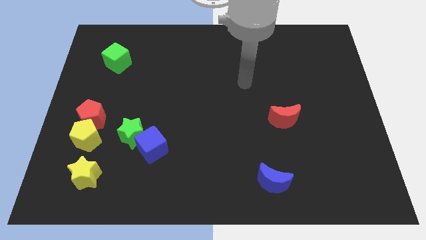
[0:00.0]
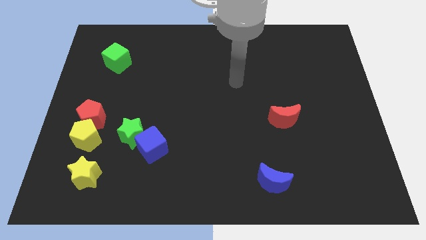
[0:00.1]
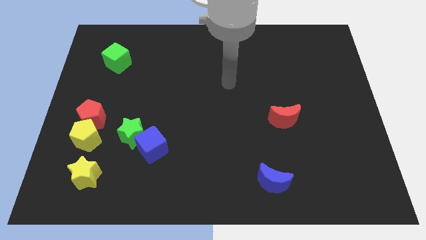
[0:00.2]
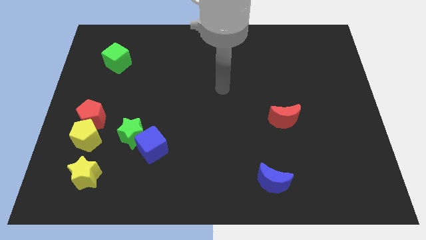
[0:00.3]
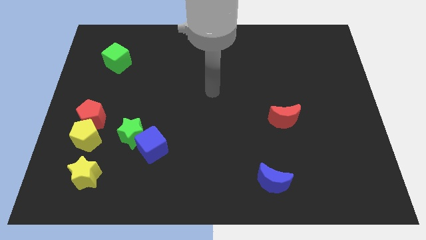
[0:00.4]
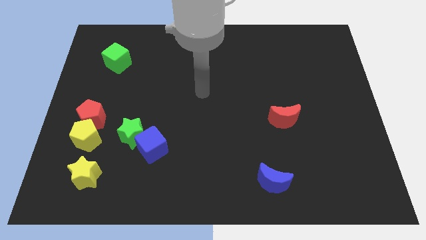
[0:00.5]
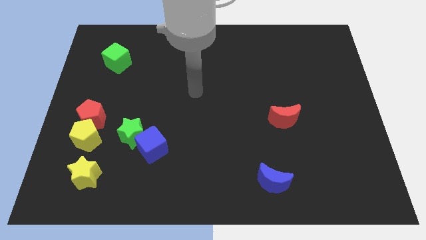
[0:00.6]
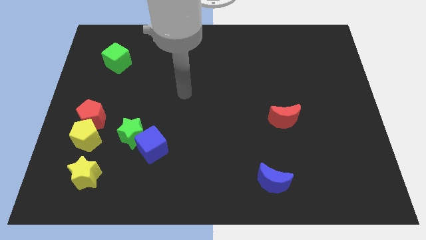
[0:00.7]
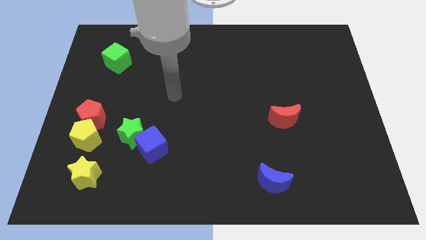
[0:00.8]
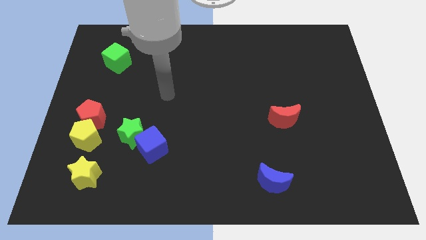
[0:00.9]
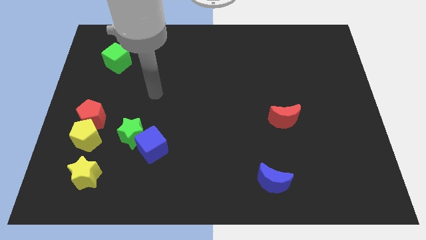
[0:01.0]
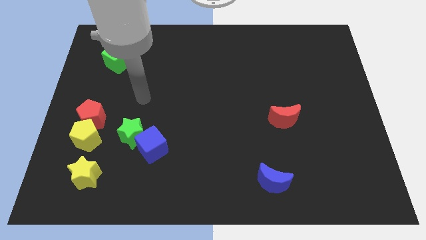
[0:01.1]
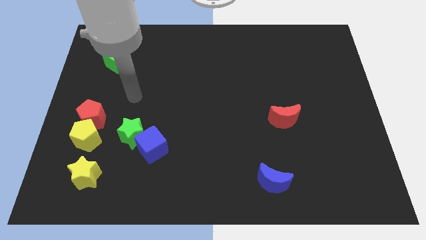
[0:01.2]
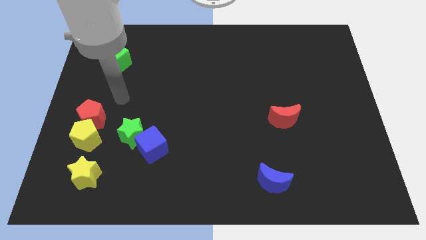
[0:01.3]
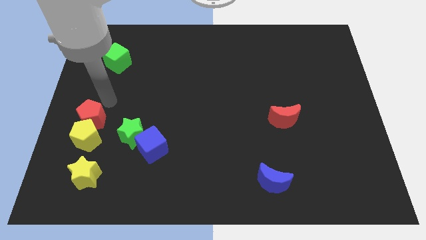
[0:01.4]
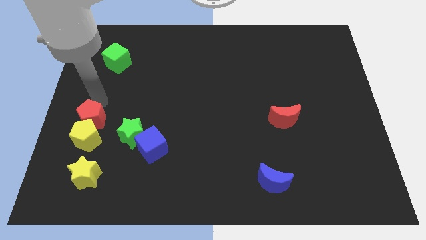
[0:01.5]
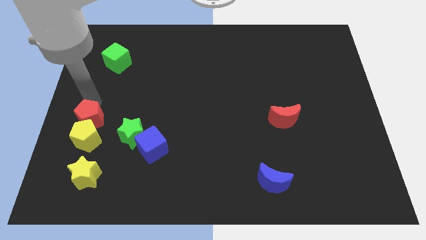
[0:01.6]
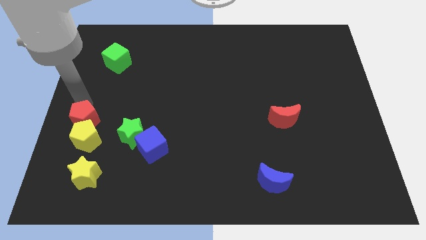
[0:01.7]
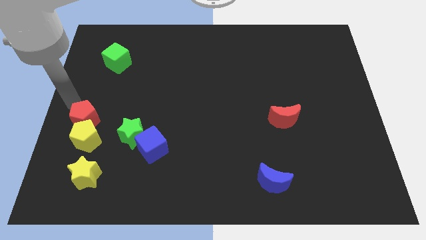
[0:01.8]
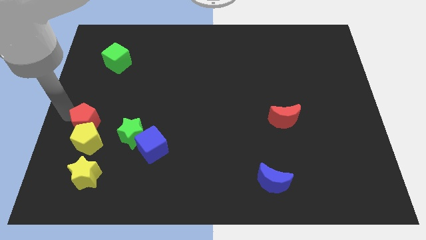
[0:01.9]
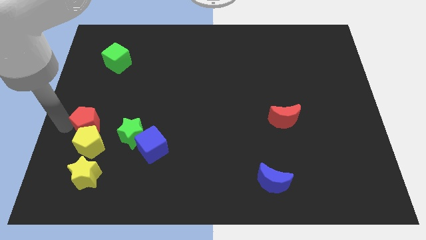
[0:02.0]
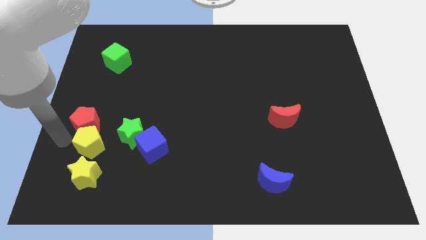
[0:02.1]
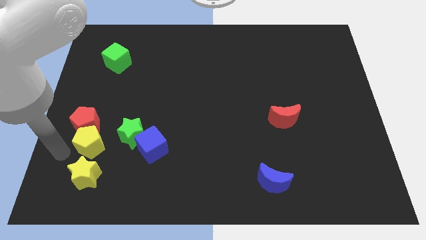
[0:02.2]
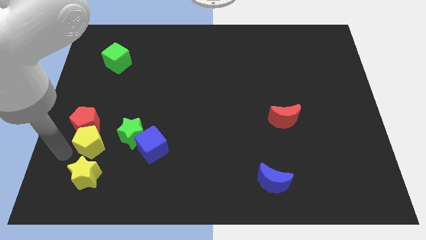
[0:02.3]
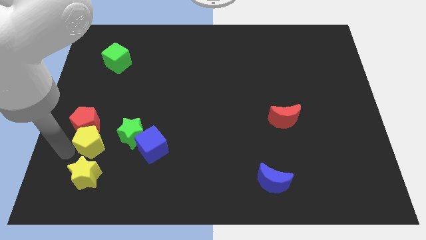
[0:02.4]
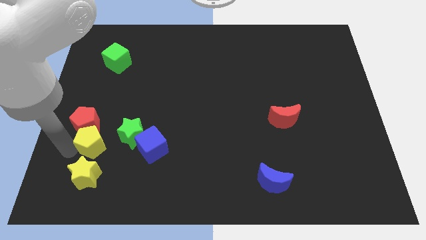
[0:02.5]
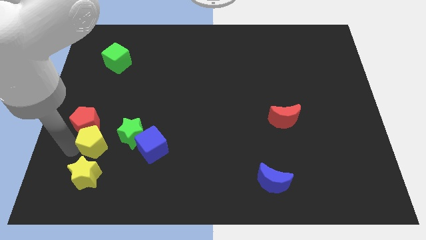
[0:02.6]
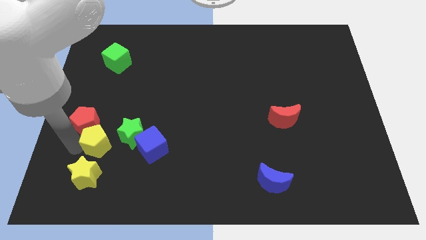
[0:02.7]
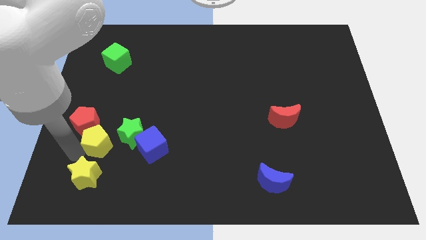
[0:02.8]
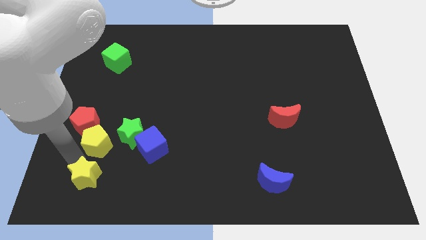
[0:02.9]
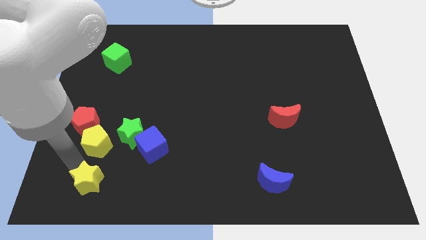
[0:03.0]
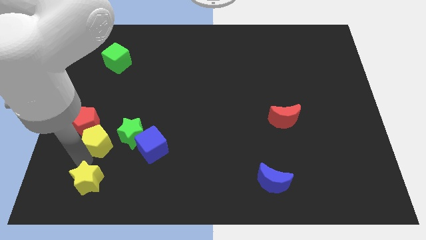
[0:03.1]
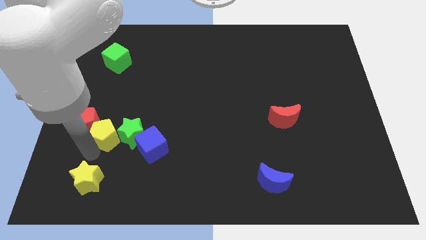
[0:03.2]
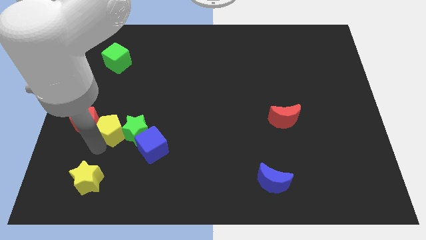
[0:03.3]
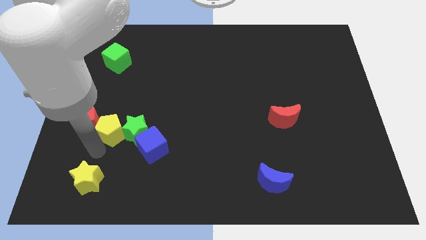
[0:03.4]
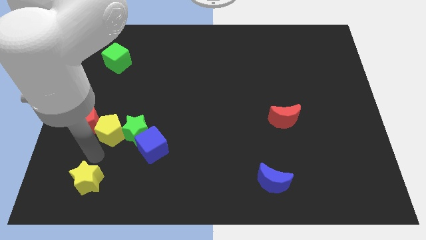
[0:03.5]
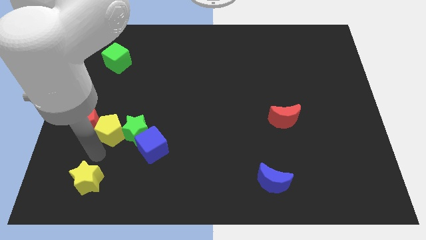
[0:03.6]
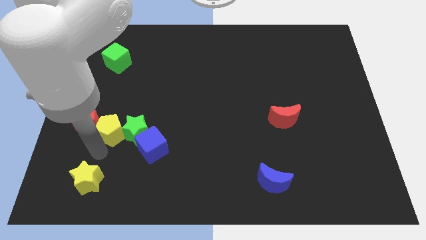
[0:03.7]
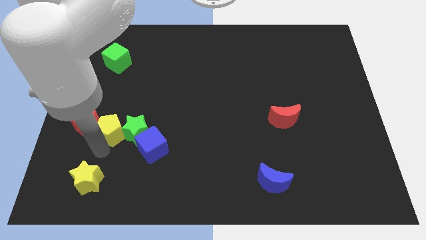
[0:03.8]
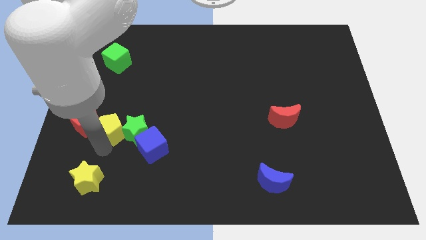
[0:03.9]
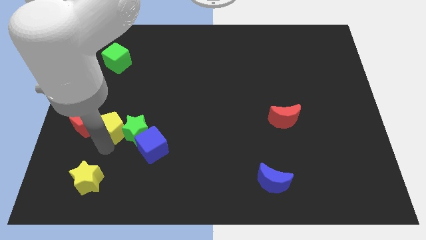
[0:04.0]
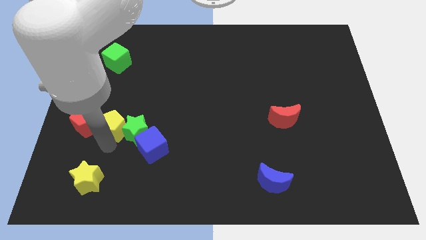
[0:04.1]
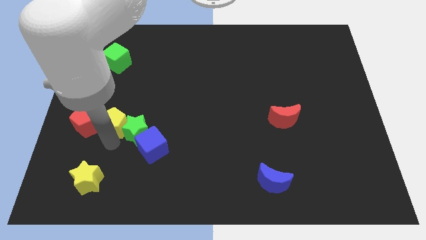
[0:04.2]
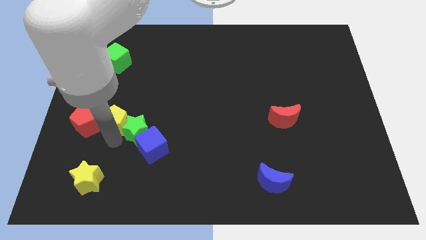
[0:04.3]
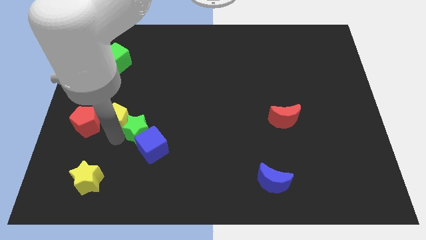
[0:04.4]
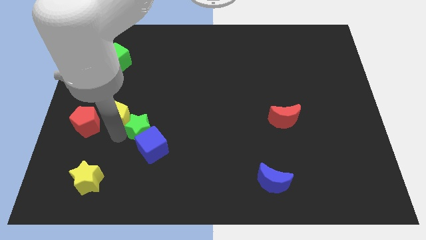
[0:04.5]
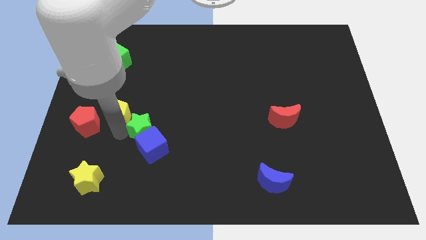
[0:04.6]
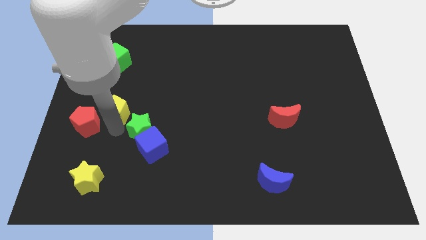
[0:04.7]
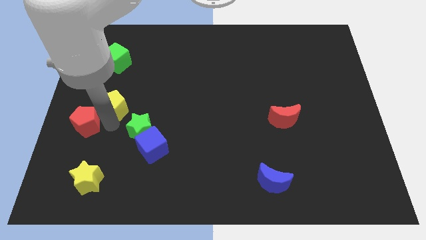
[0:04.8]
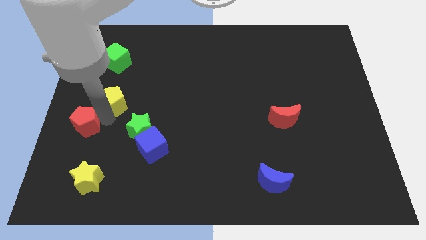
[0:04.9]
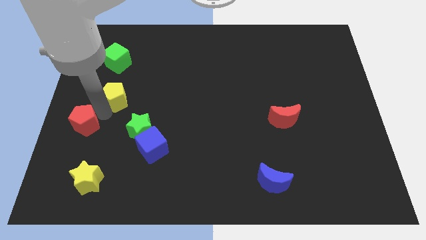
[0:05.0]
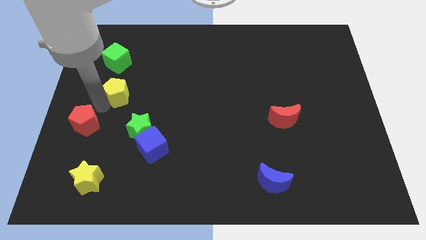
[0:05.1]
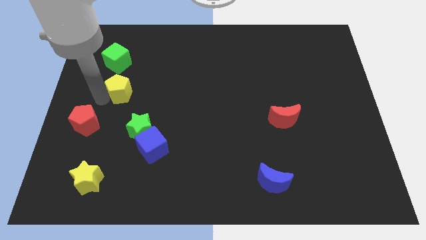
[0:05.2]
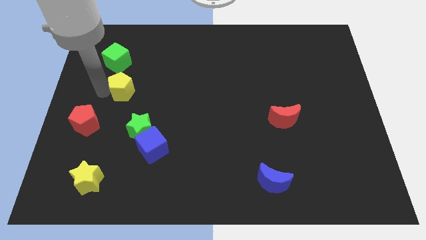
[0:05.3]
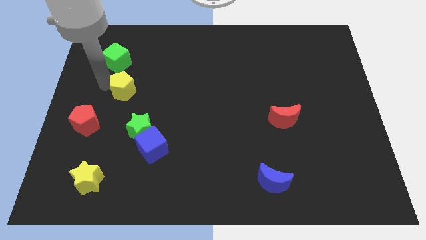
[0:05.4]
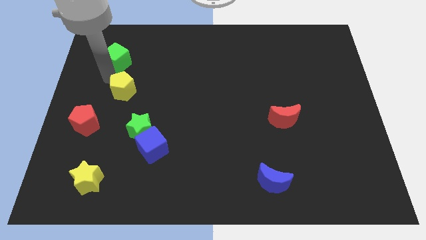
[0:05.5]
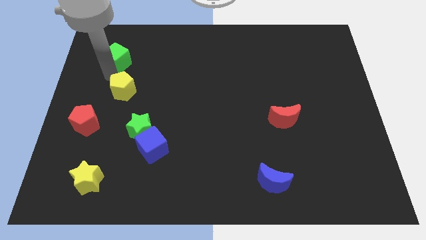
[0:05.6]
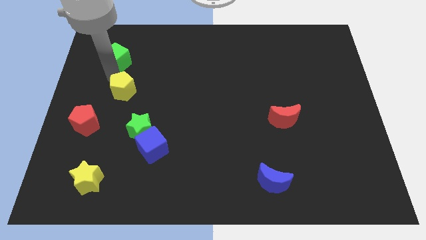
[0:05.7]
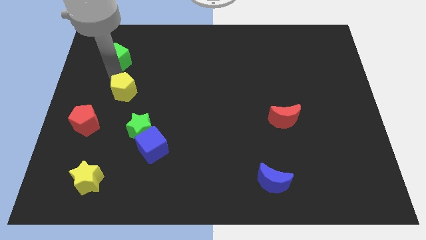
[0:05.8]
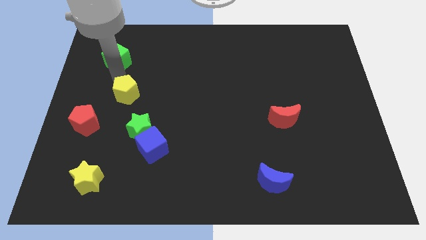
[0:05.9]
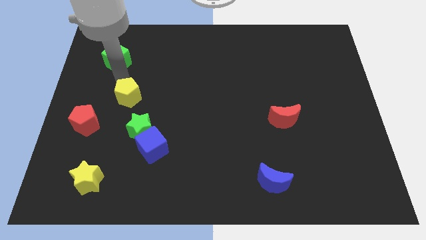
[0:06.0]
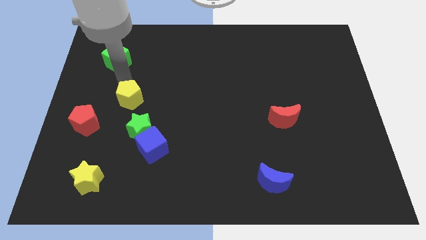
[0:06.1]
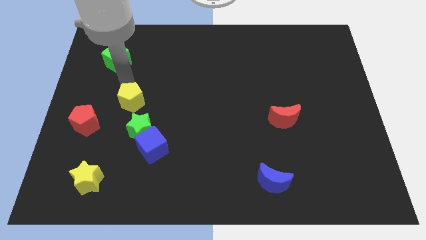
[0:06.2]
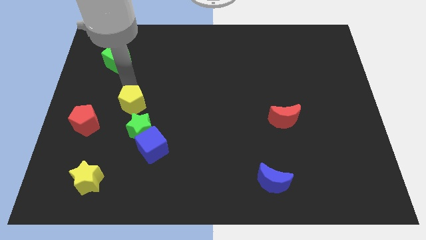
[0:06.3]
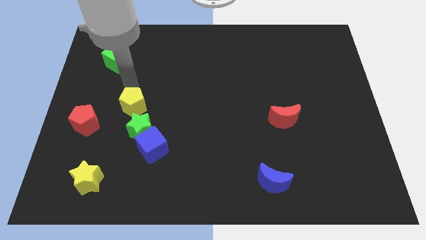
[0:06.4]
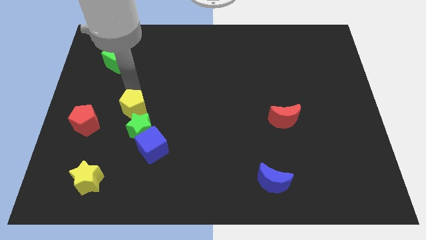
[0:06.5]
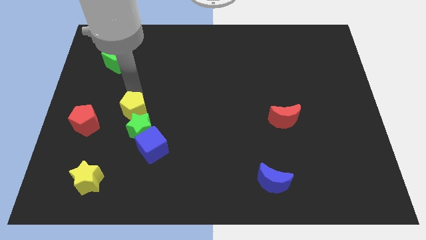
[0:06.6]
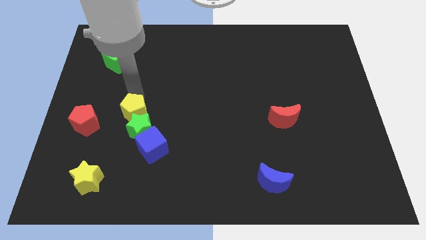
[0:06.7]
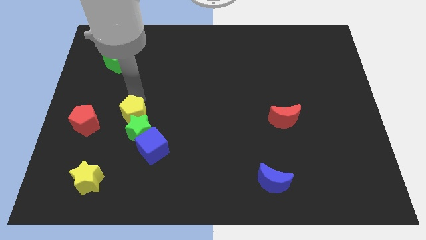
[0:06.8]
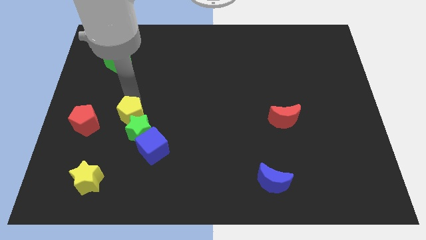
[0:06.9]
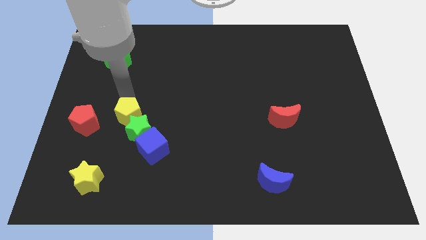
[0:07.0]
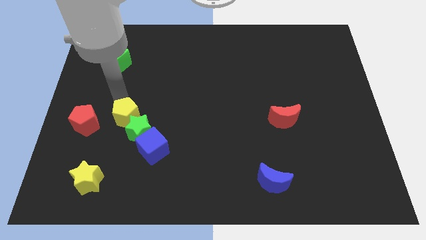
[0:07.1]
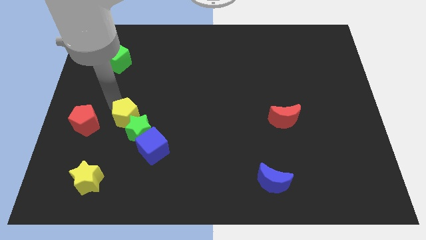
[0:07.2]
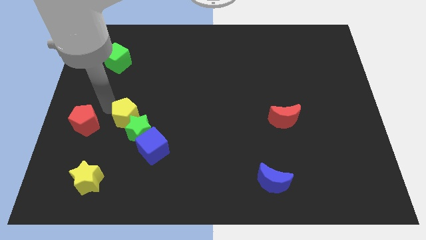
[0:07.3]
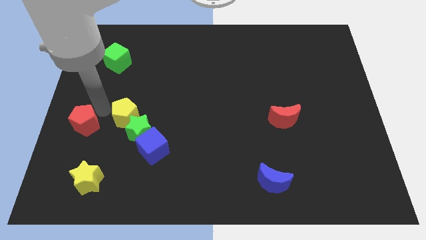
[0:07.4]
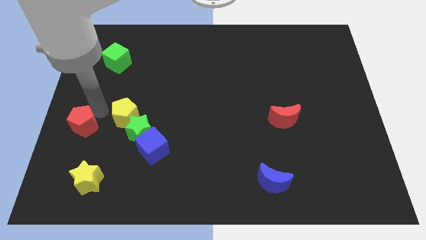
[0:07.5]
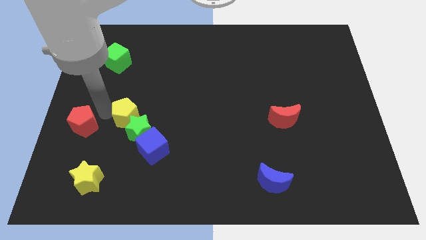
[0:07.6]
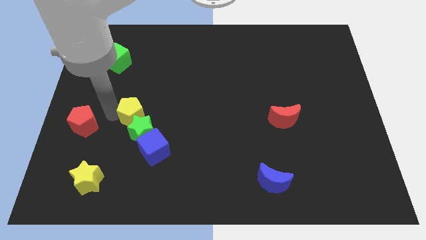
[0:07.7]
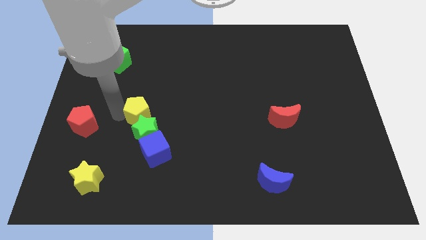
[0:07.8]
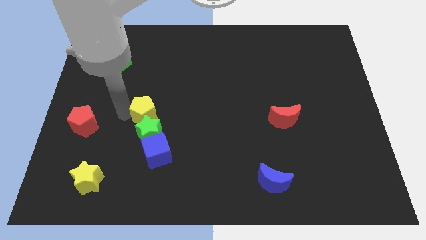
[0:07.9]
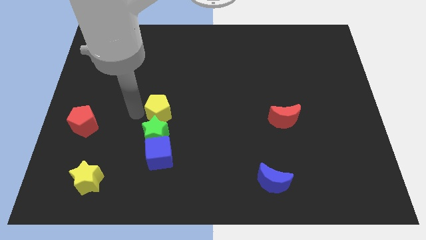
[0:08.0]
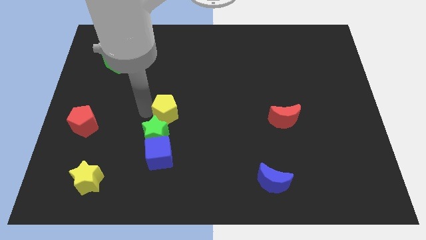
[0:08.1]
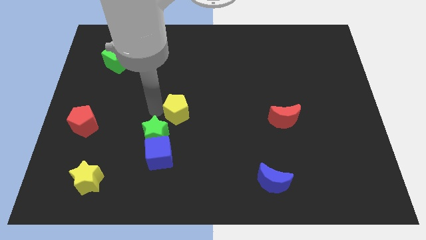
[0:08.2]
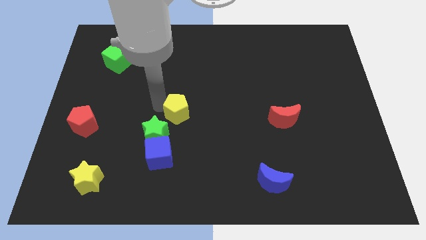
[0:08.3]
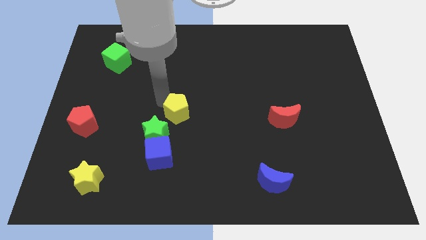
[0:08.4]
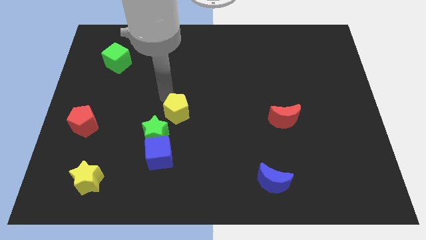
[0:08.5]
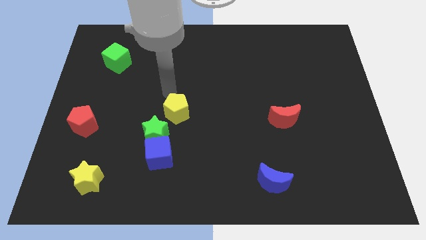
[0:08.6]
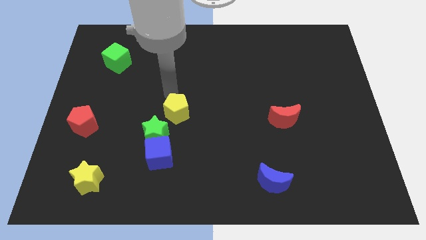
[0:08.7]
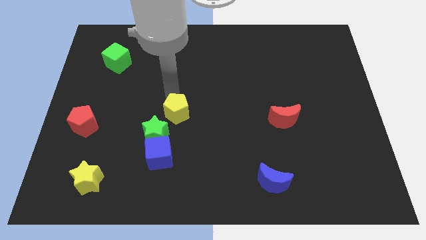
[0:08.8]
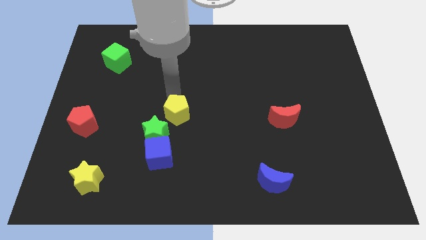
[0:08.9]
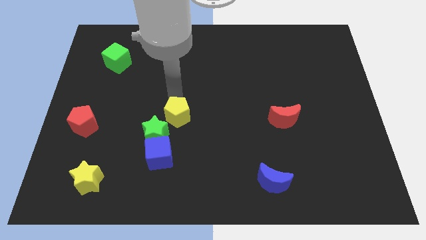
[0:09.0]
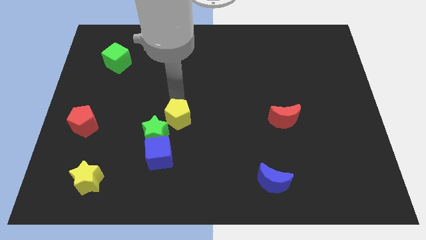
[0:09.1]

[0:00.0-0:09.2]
put the yellow pentagon to the top right of the blue cube
